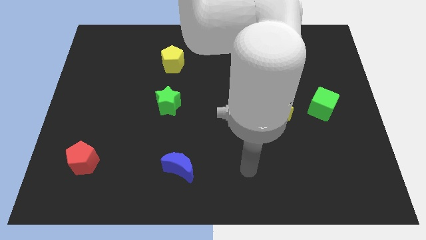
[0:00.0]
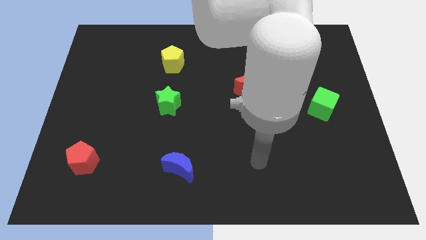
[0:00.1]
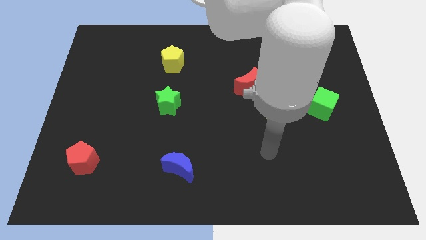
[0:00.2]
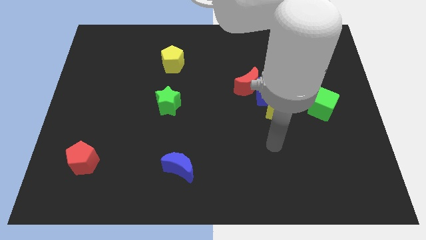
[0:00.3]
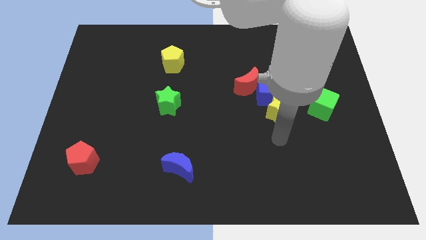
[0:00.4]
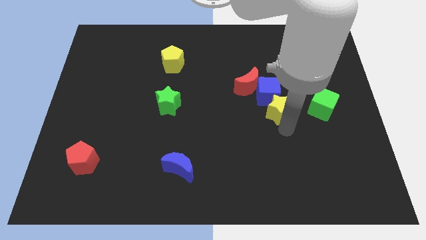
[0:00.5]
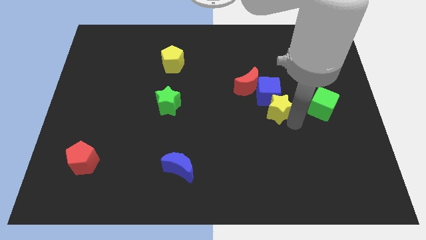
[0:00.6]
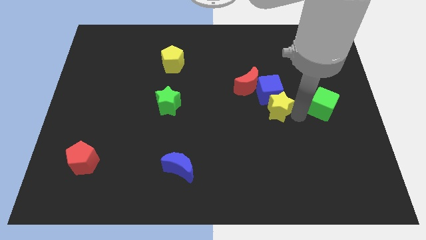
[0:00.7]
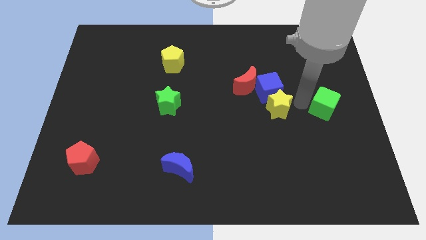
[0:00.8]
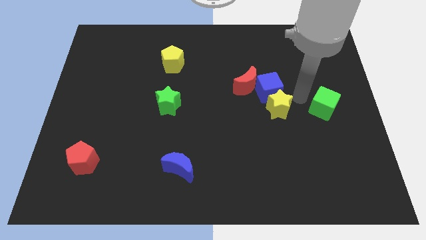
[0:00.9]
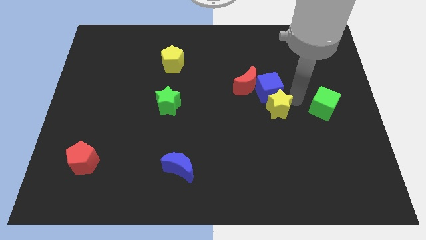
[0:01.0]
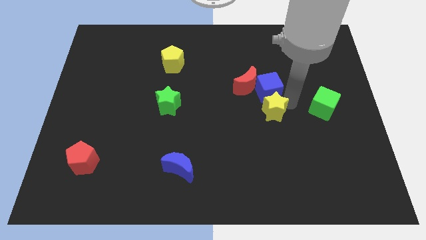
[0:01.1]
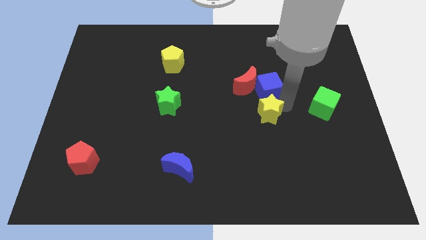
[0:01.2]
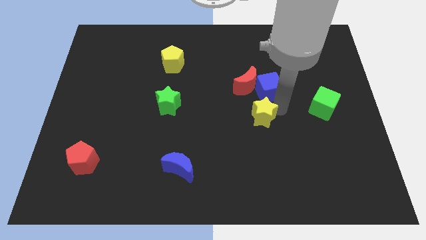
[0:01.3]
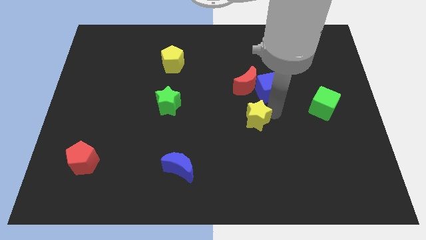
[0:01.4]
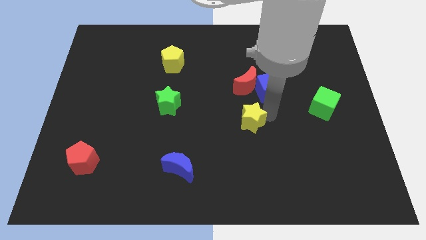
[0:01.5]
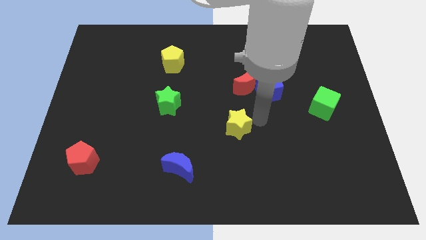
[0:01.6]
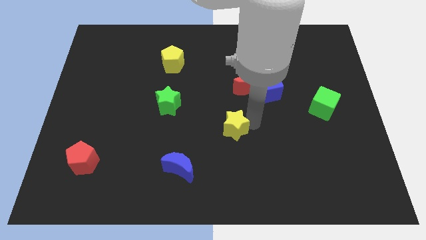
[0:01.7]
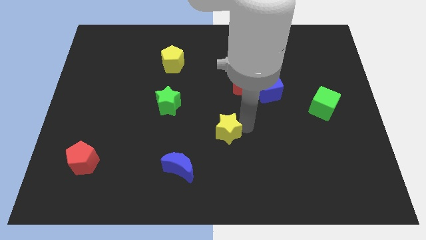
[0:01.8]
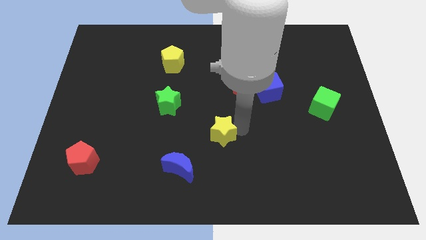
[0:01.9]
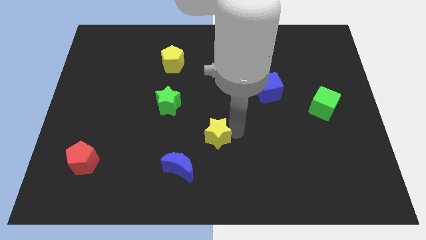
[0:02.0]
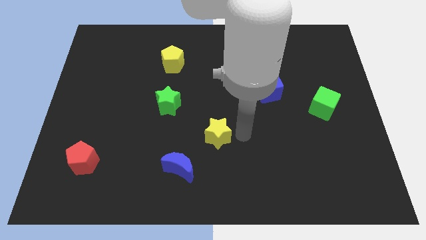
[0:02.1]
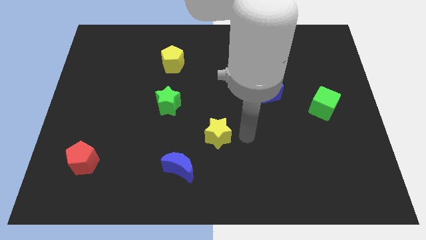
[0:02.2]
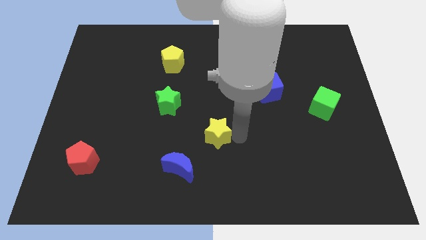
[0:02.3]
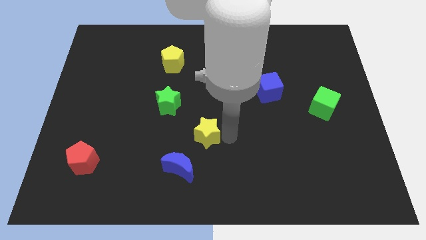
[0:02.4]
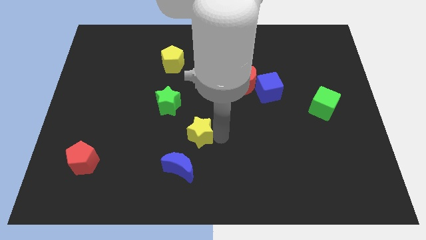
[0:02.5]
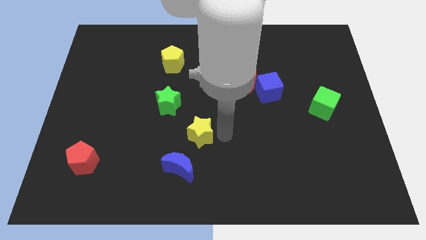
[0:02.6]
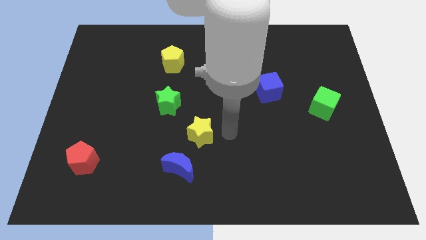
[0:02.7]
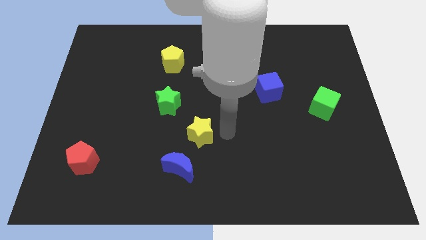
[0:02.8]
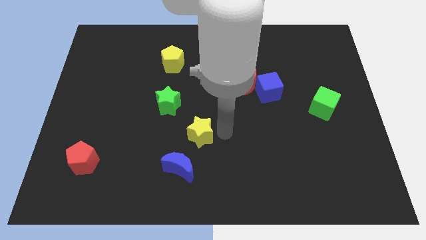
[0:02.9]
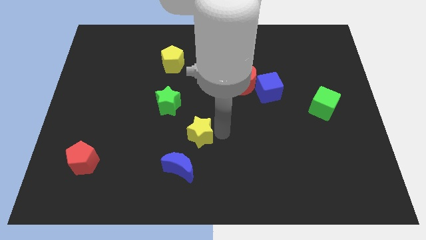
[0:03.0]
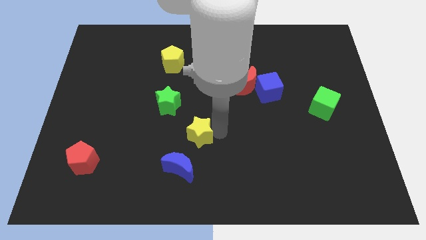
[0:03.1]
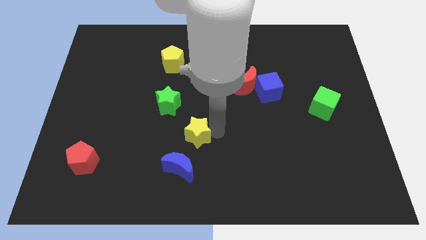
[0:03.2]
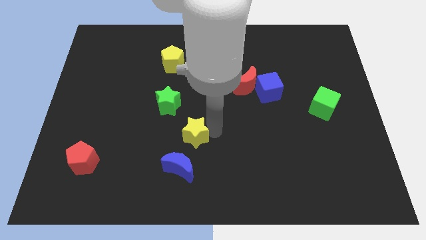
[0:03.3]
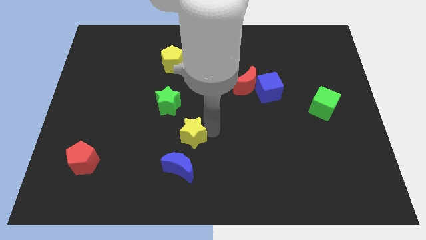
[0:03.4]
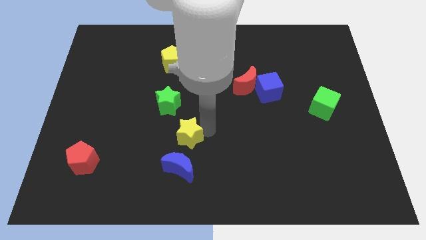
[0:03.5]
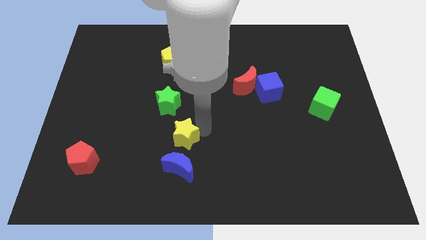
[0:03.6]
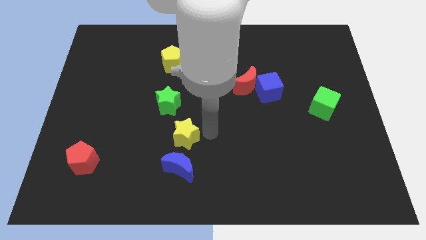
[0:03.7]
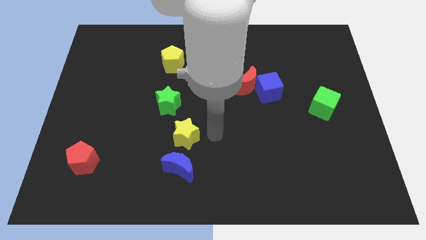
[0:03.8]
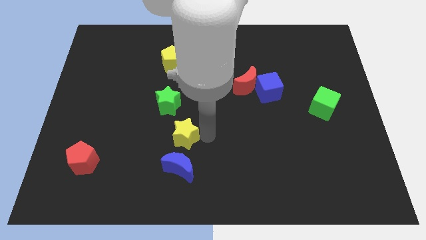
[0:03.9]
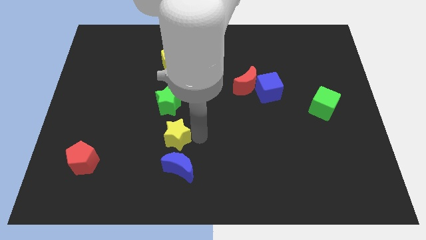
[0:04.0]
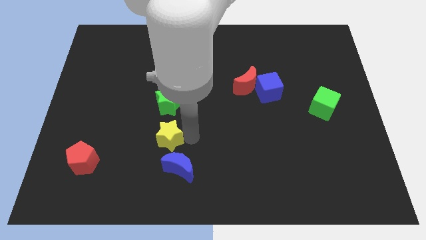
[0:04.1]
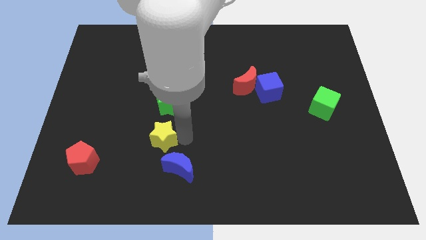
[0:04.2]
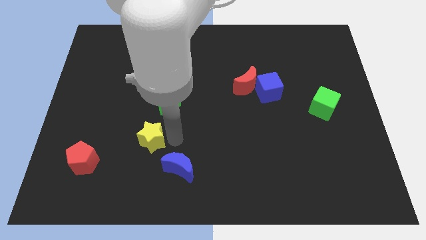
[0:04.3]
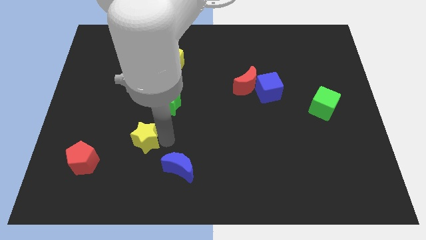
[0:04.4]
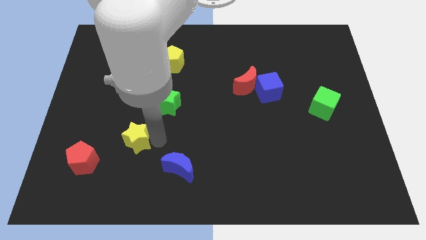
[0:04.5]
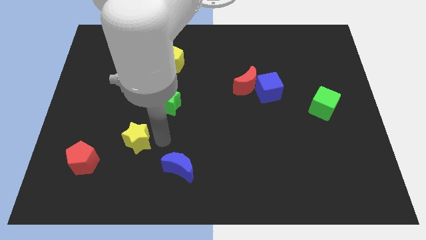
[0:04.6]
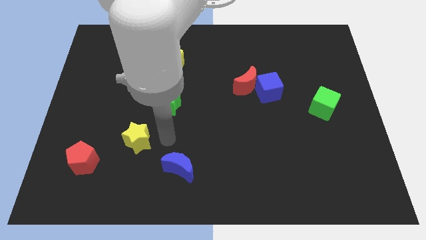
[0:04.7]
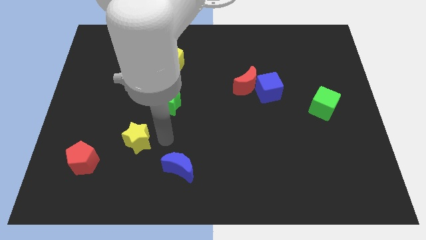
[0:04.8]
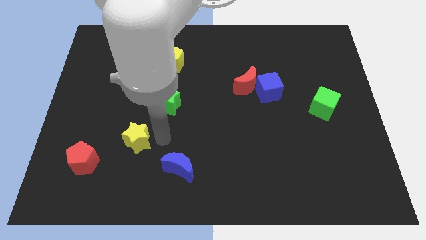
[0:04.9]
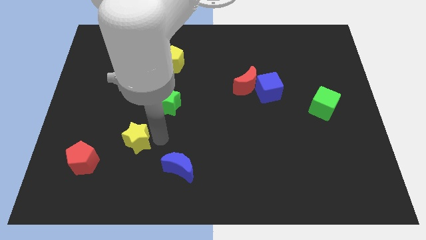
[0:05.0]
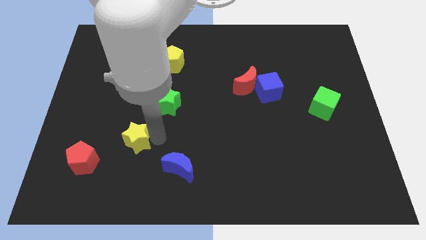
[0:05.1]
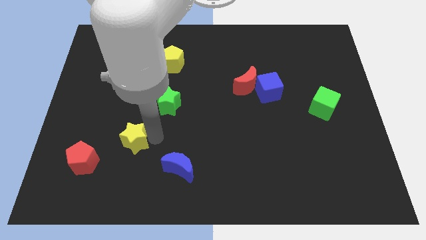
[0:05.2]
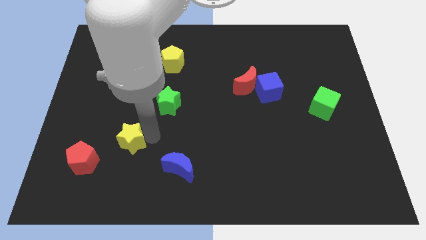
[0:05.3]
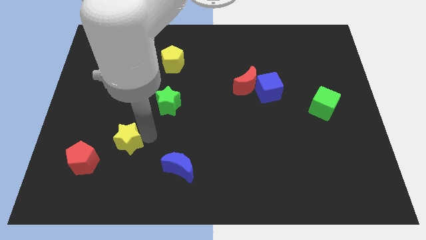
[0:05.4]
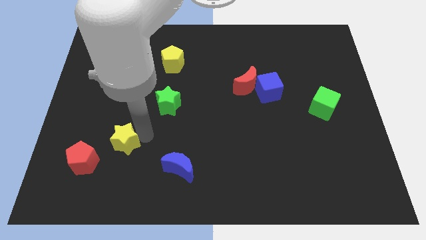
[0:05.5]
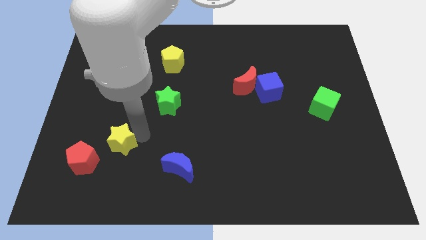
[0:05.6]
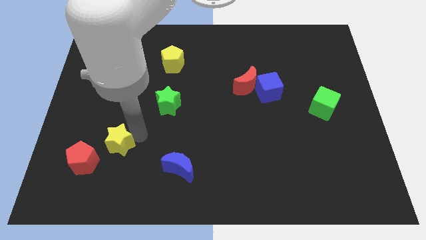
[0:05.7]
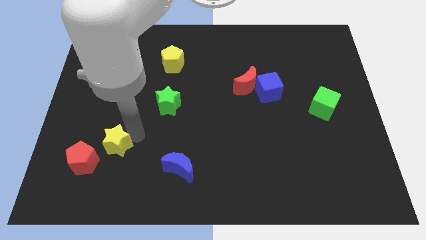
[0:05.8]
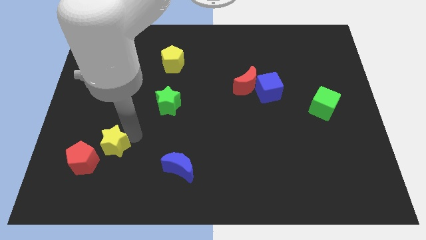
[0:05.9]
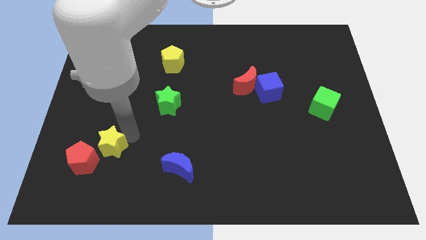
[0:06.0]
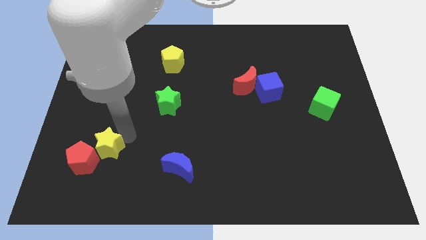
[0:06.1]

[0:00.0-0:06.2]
push the yellow star next to the red pentagon
